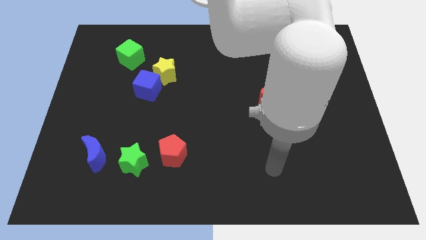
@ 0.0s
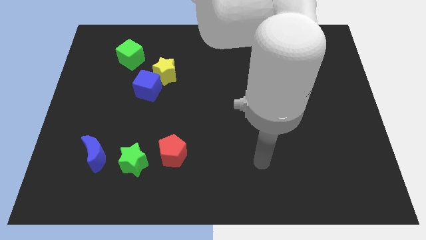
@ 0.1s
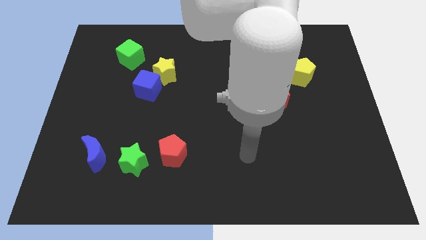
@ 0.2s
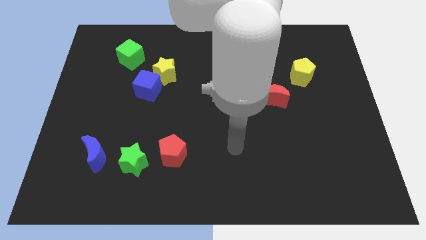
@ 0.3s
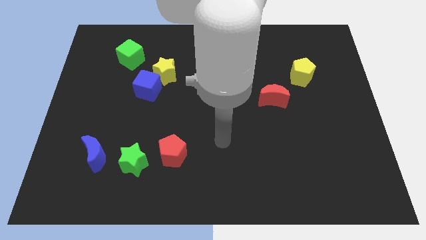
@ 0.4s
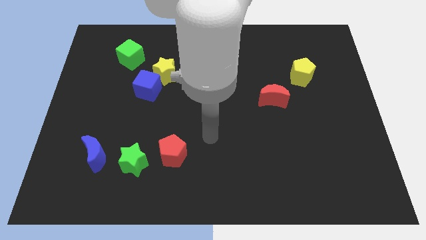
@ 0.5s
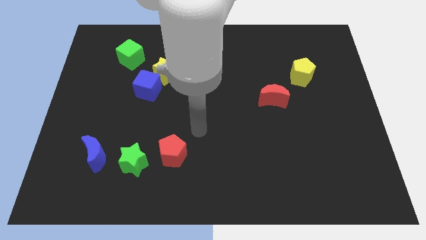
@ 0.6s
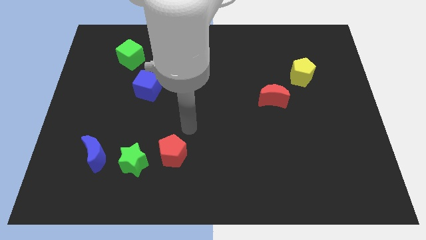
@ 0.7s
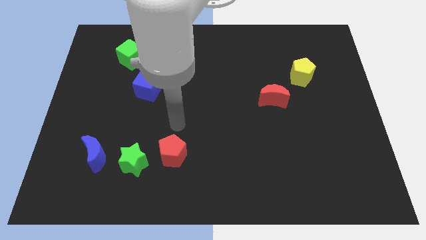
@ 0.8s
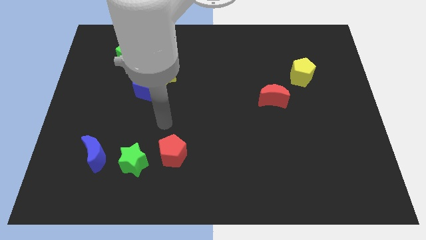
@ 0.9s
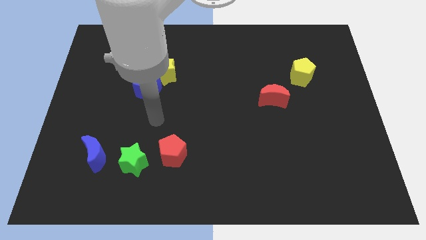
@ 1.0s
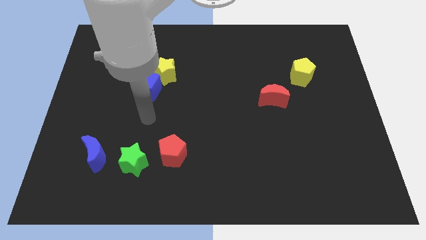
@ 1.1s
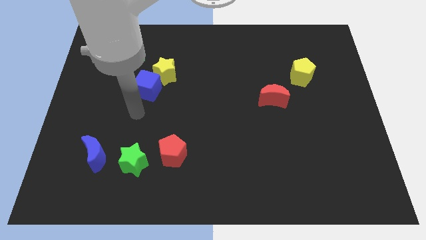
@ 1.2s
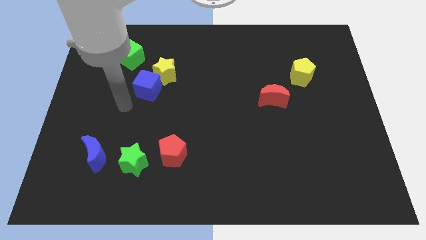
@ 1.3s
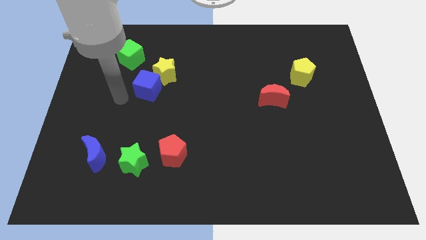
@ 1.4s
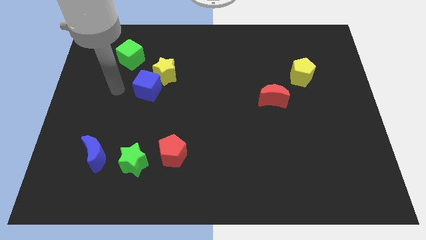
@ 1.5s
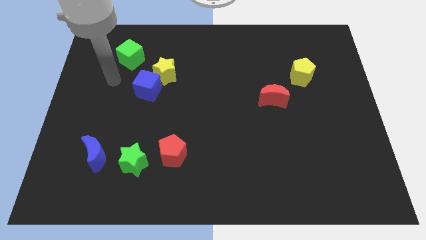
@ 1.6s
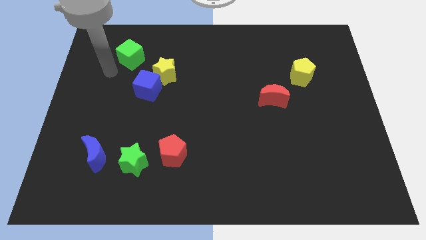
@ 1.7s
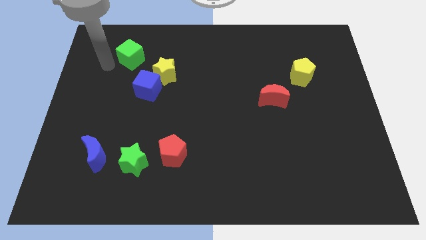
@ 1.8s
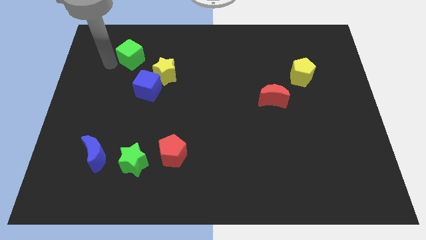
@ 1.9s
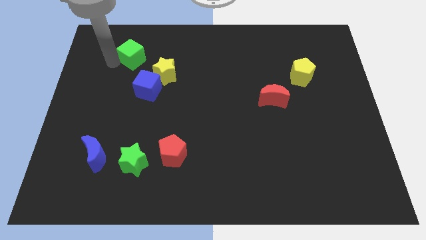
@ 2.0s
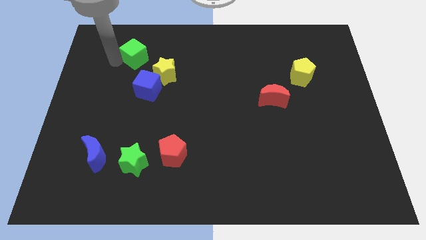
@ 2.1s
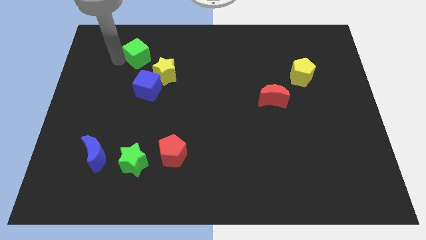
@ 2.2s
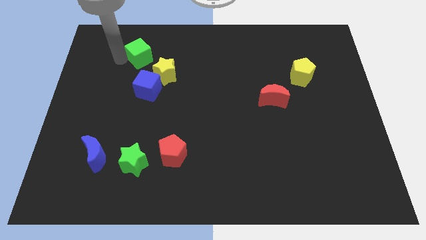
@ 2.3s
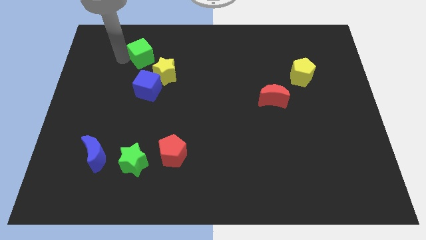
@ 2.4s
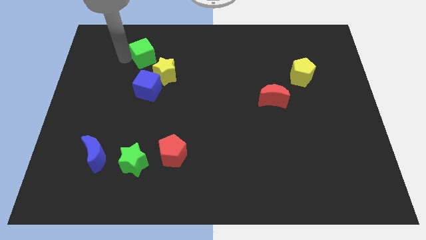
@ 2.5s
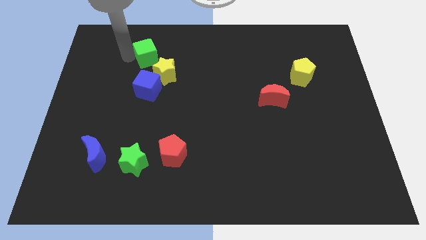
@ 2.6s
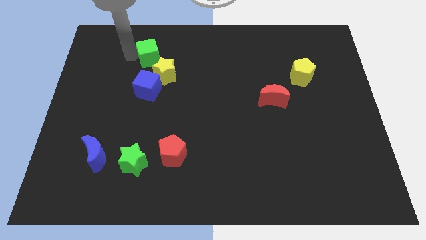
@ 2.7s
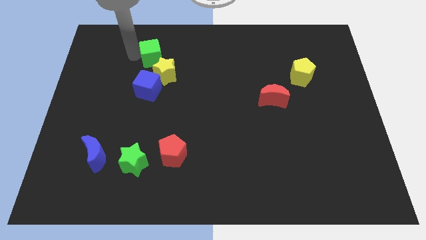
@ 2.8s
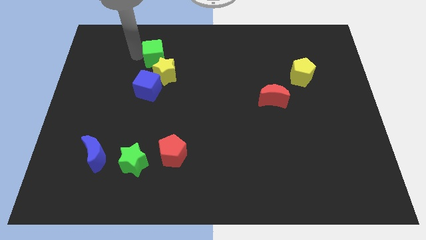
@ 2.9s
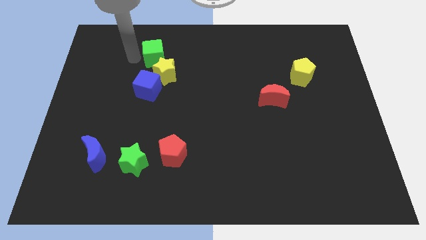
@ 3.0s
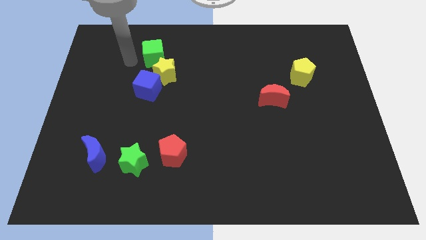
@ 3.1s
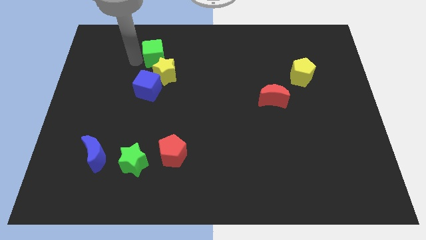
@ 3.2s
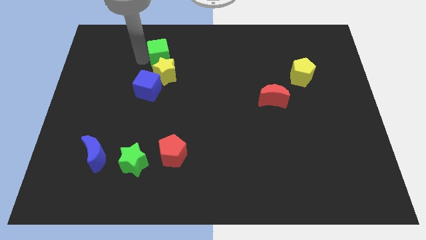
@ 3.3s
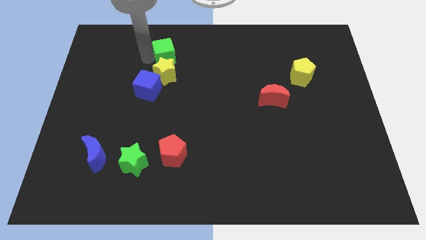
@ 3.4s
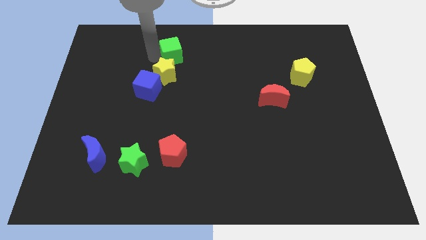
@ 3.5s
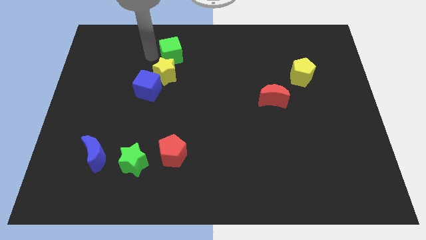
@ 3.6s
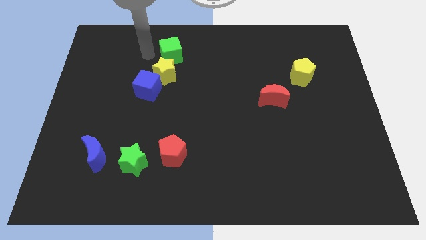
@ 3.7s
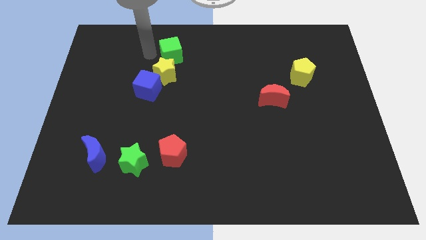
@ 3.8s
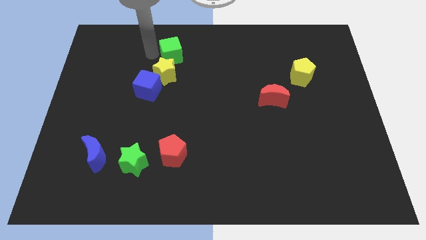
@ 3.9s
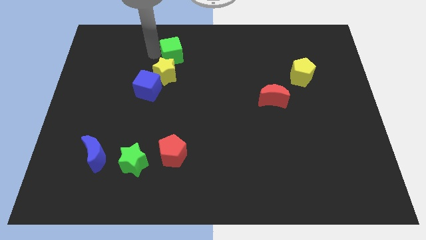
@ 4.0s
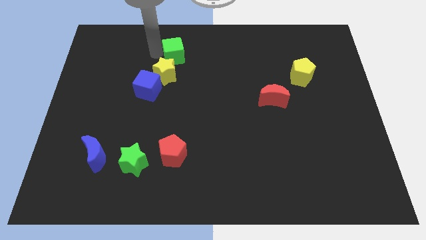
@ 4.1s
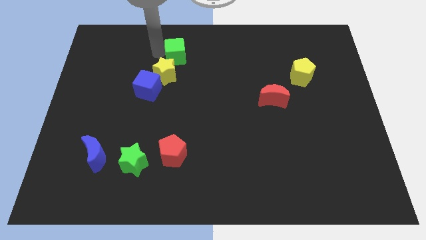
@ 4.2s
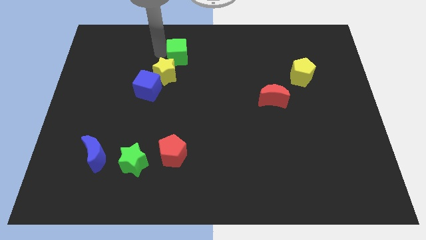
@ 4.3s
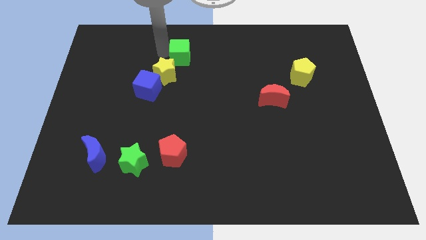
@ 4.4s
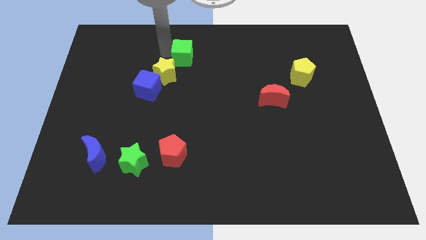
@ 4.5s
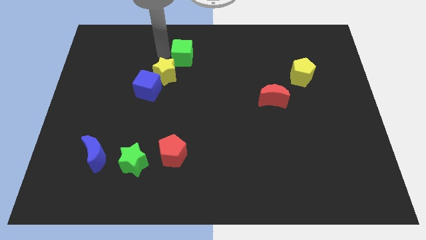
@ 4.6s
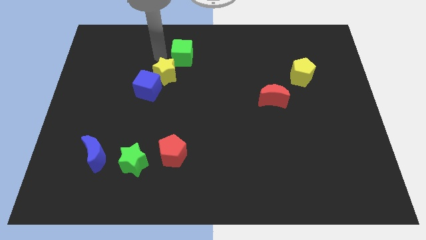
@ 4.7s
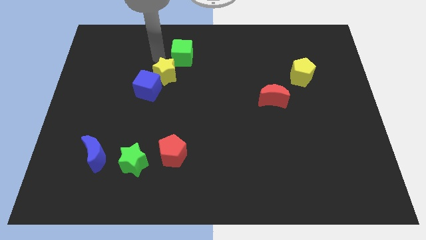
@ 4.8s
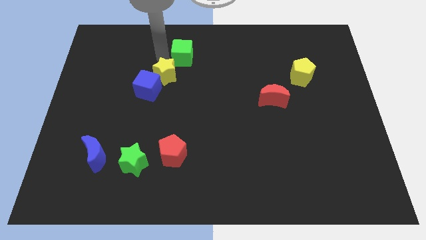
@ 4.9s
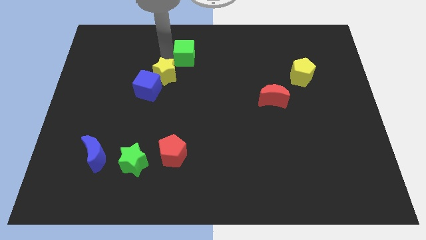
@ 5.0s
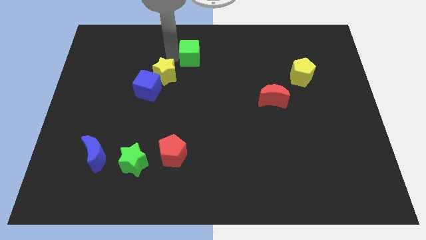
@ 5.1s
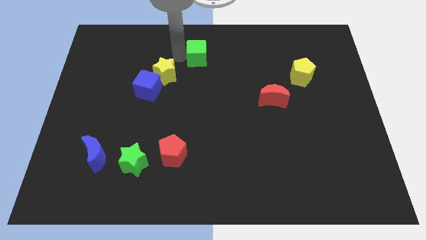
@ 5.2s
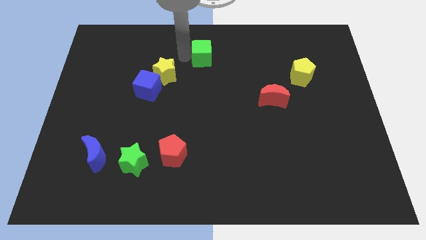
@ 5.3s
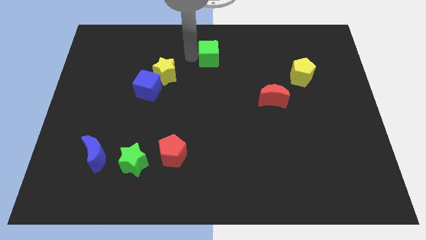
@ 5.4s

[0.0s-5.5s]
push the green cube right

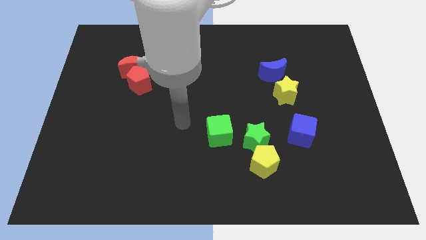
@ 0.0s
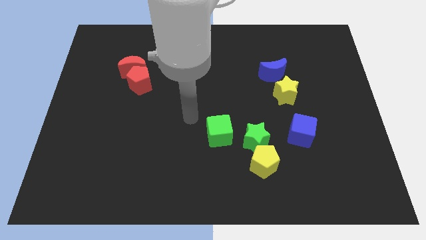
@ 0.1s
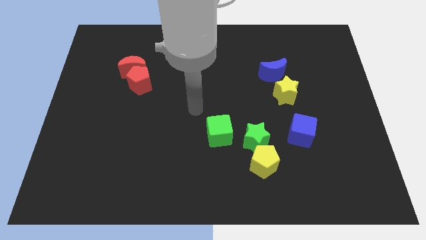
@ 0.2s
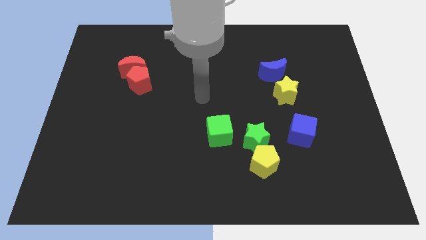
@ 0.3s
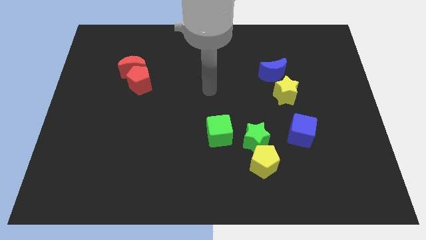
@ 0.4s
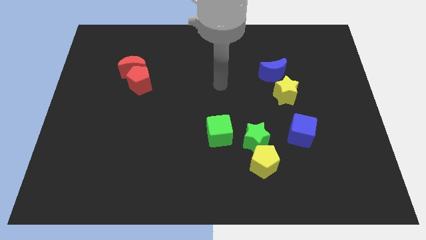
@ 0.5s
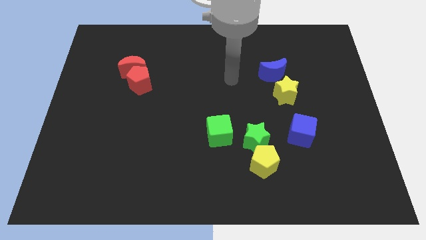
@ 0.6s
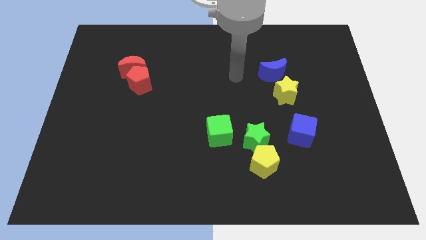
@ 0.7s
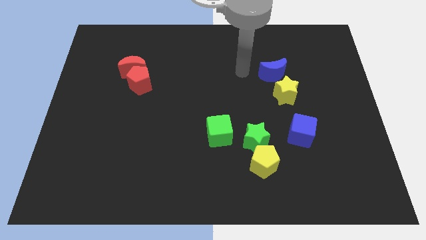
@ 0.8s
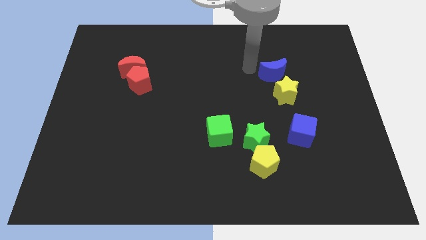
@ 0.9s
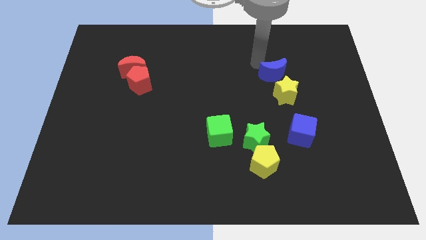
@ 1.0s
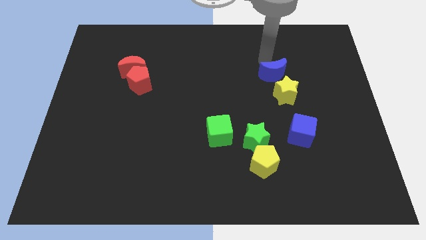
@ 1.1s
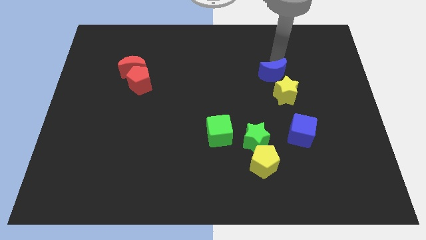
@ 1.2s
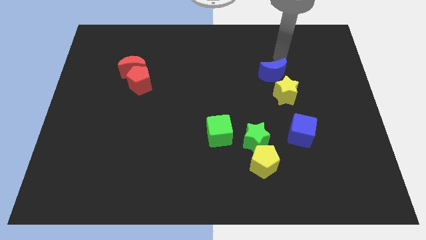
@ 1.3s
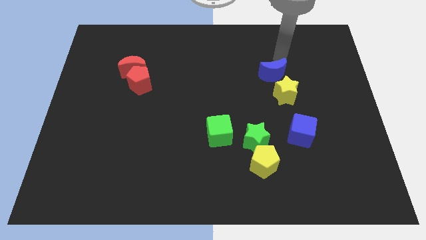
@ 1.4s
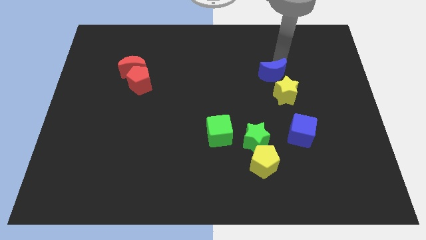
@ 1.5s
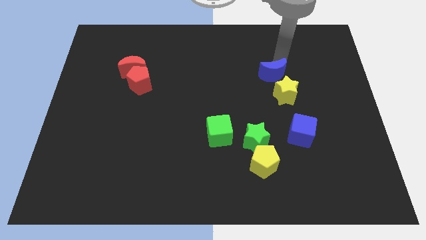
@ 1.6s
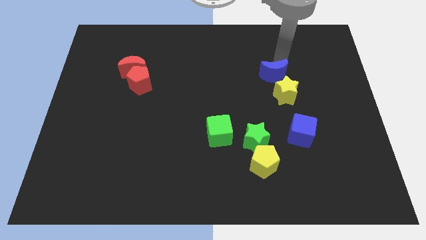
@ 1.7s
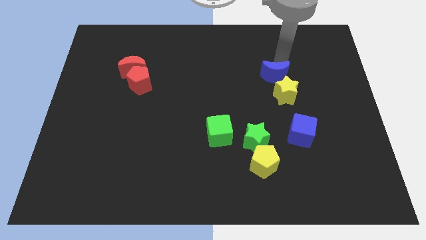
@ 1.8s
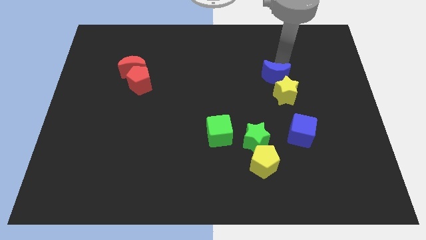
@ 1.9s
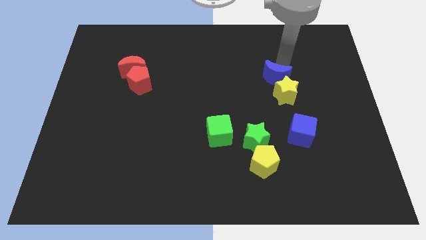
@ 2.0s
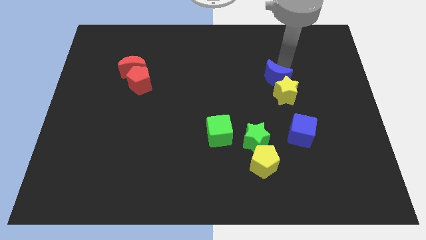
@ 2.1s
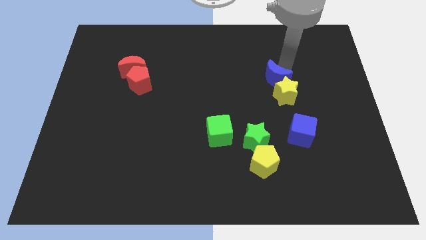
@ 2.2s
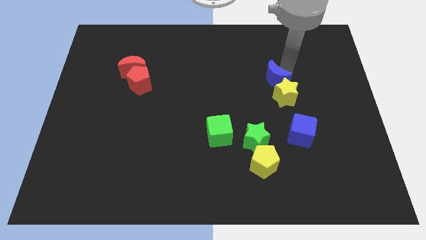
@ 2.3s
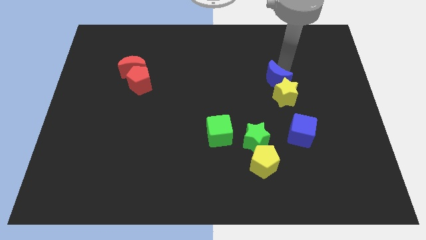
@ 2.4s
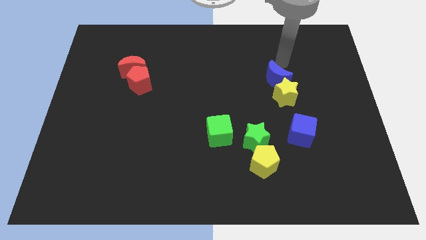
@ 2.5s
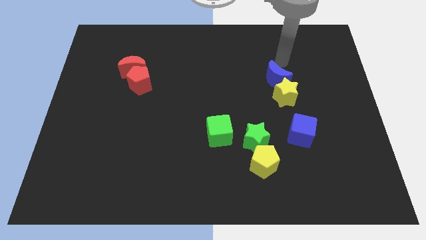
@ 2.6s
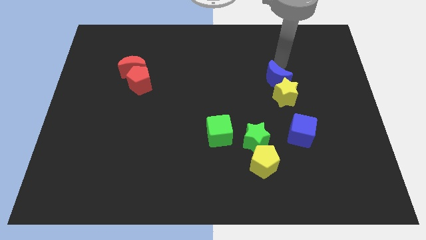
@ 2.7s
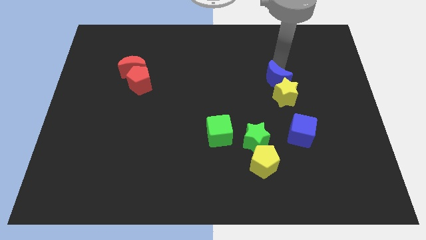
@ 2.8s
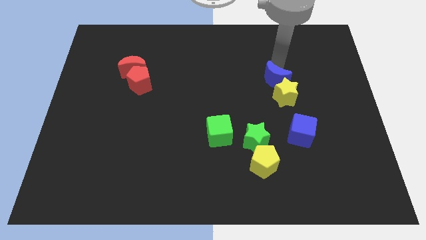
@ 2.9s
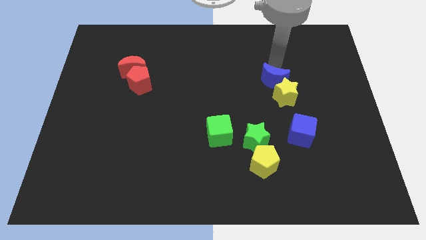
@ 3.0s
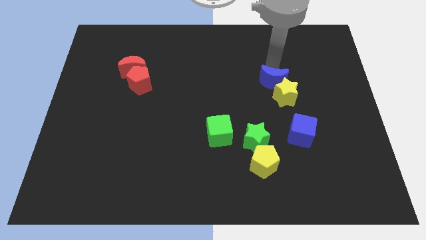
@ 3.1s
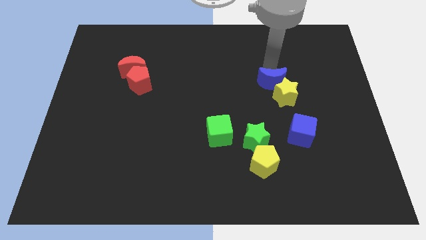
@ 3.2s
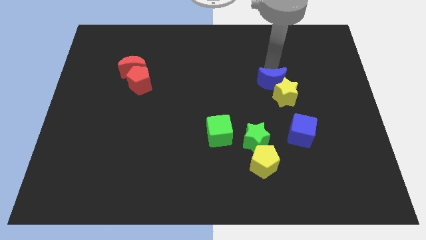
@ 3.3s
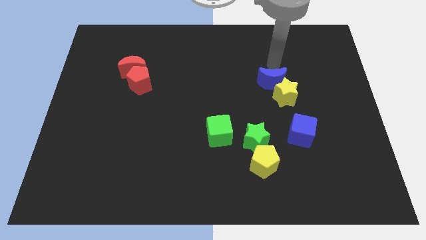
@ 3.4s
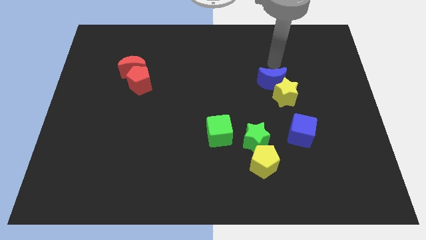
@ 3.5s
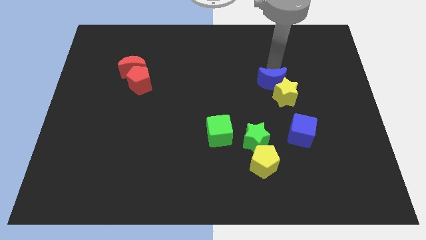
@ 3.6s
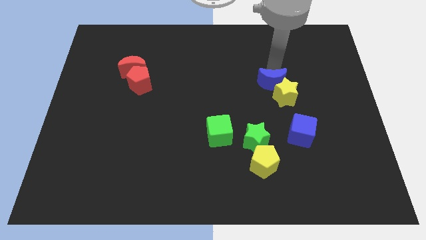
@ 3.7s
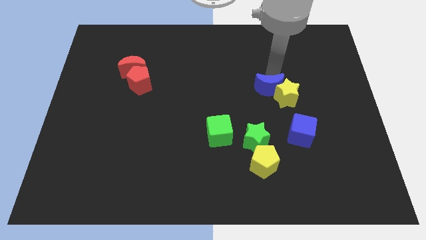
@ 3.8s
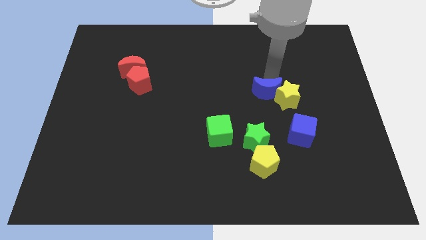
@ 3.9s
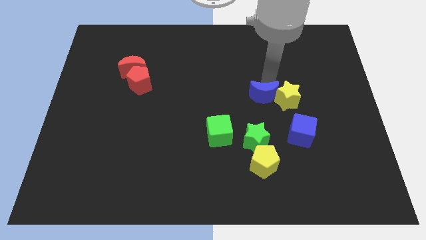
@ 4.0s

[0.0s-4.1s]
slightly move the blue moon downwards
